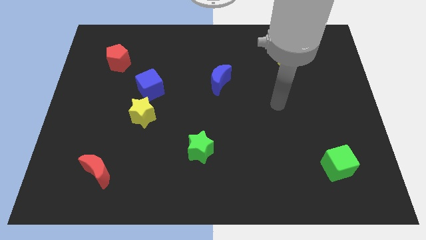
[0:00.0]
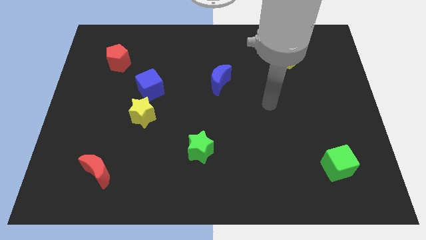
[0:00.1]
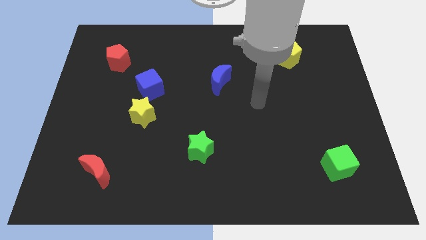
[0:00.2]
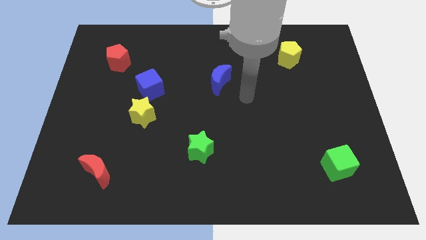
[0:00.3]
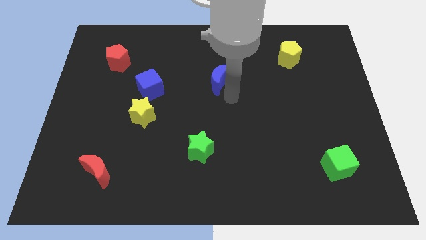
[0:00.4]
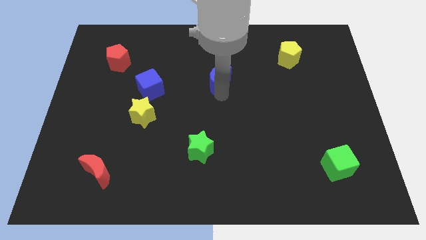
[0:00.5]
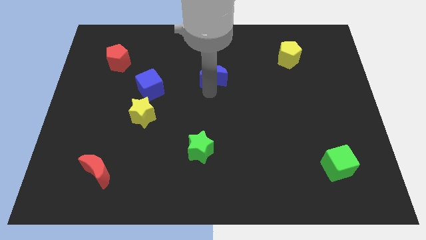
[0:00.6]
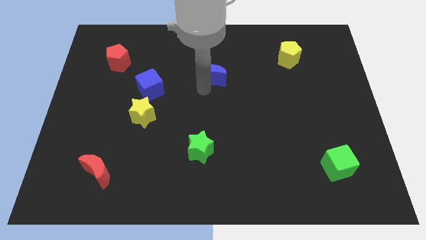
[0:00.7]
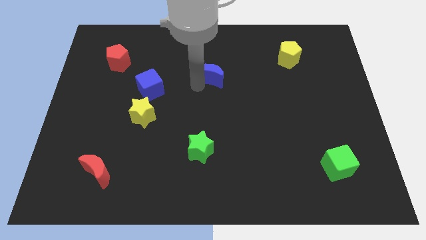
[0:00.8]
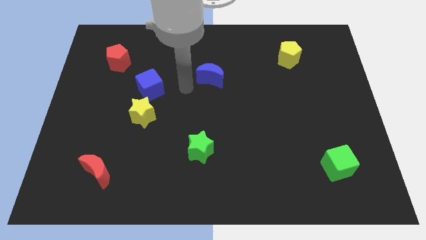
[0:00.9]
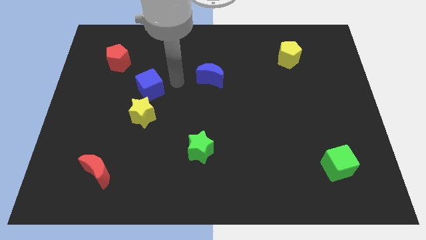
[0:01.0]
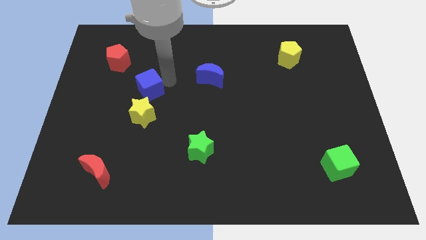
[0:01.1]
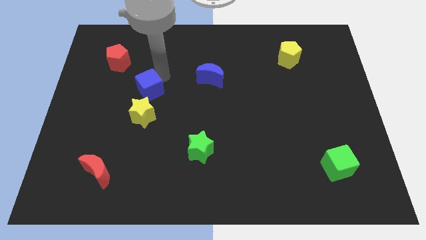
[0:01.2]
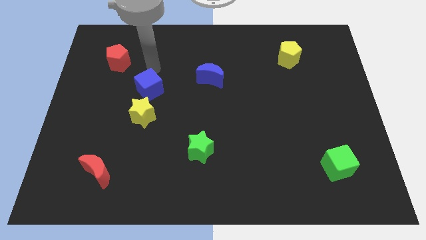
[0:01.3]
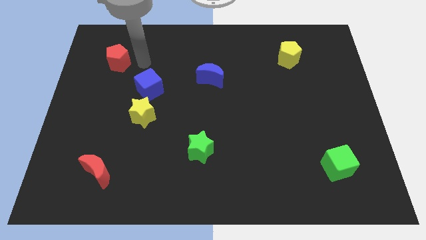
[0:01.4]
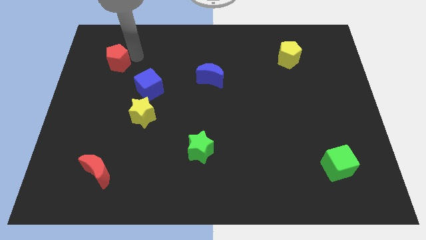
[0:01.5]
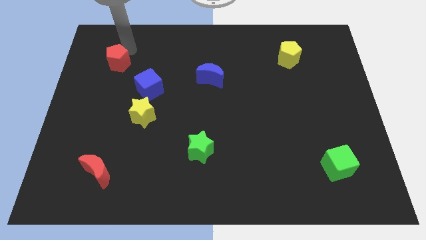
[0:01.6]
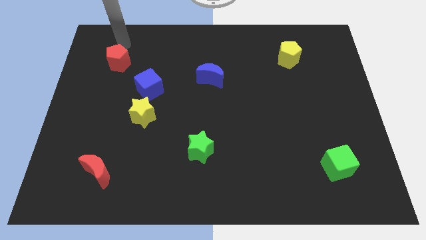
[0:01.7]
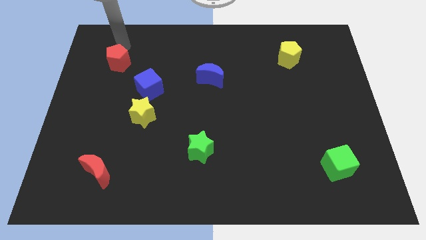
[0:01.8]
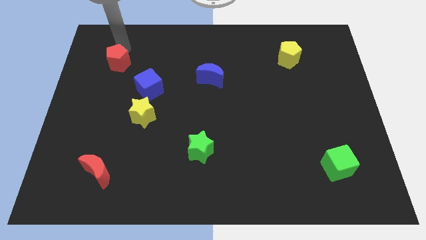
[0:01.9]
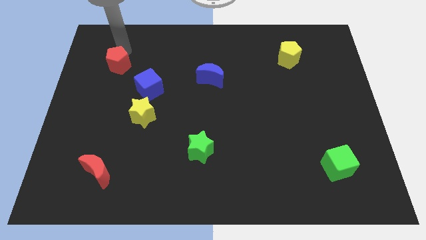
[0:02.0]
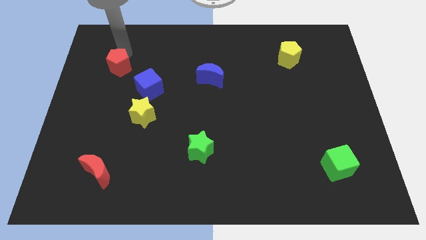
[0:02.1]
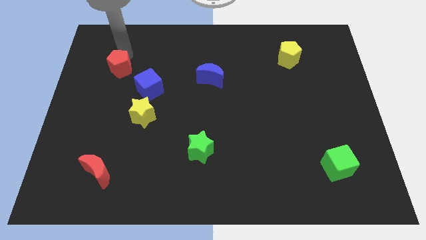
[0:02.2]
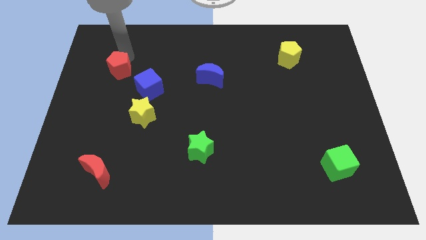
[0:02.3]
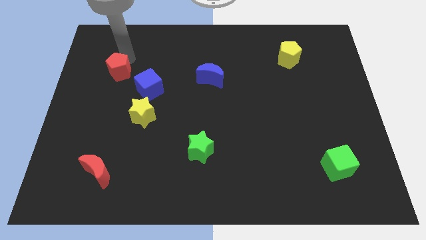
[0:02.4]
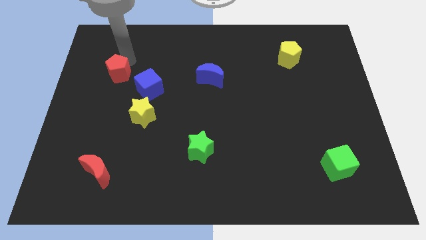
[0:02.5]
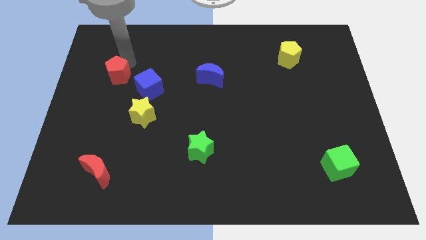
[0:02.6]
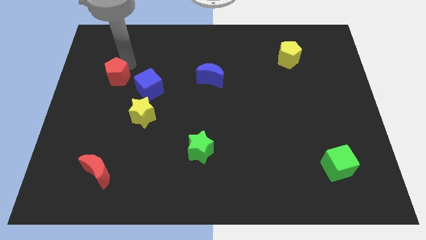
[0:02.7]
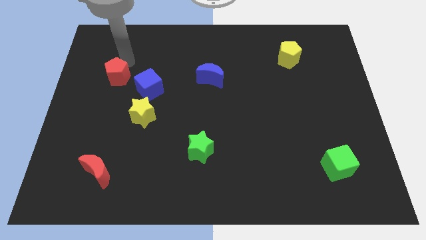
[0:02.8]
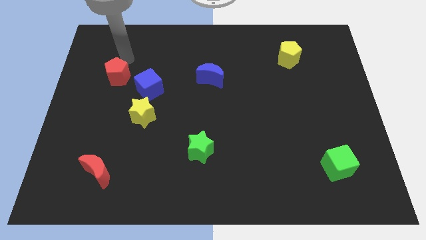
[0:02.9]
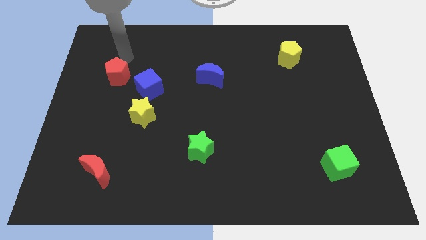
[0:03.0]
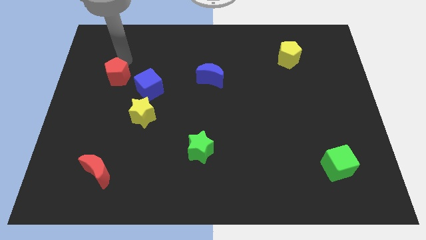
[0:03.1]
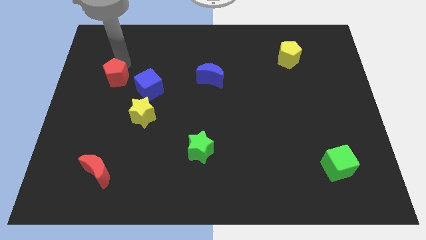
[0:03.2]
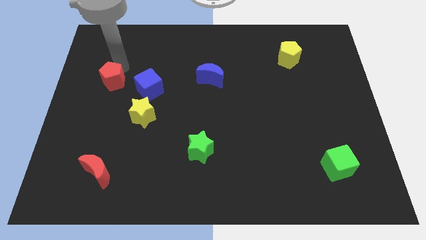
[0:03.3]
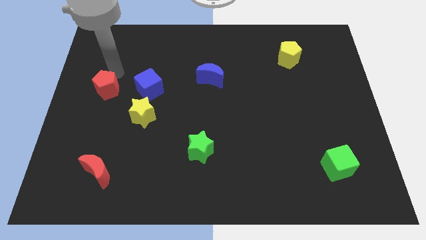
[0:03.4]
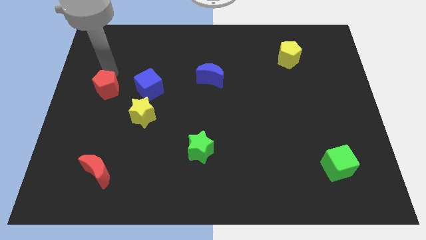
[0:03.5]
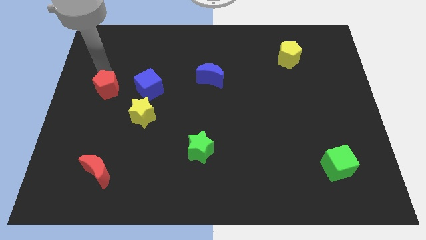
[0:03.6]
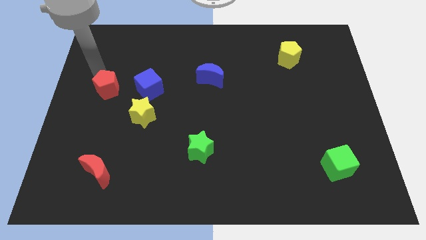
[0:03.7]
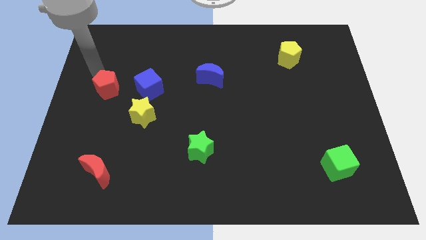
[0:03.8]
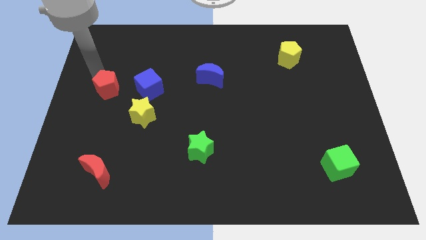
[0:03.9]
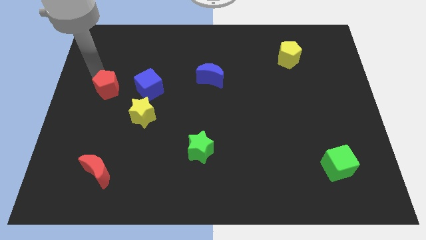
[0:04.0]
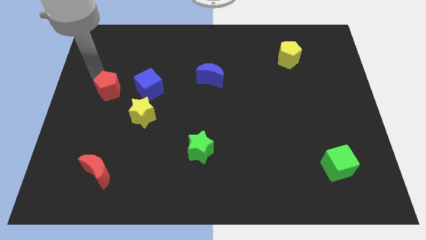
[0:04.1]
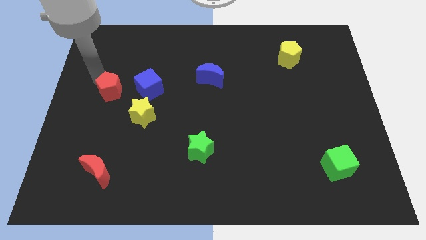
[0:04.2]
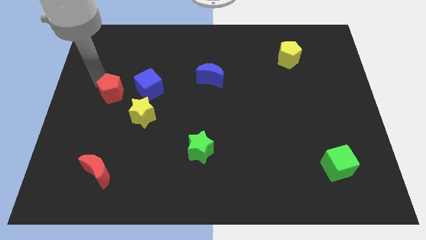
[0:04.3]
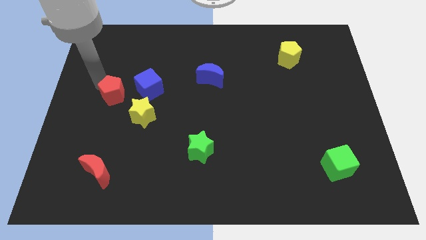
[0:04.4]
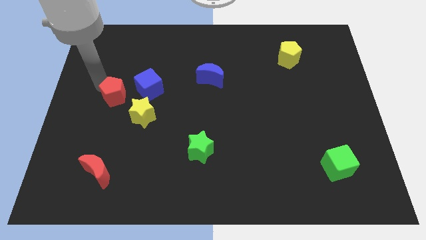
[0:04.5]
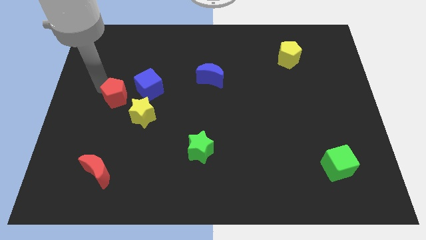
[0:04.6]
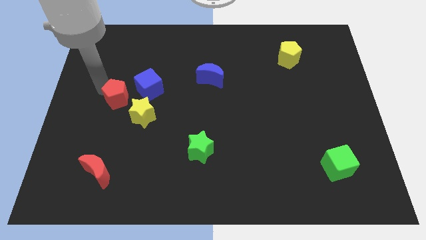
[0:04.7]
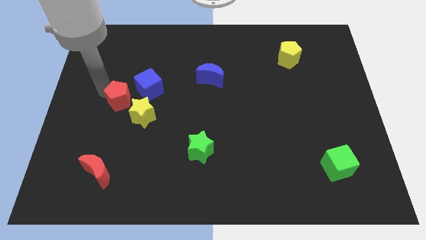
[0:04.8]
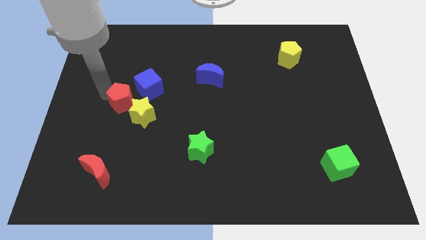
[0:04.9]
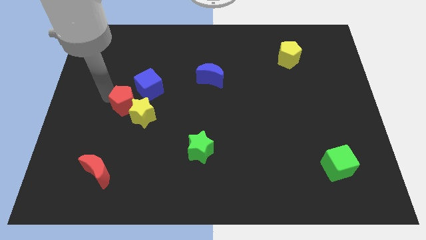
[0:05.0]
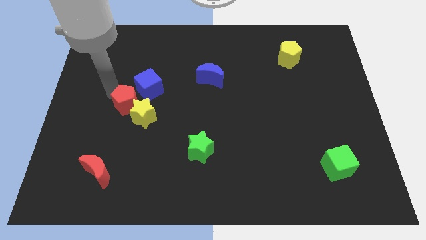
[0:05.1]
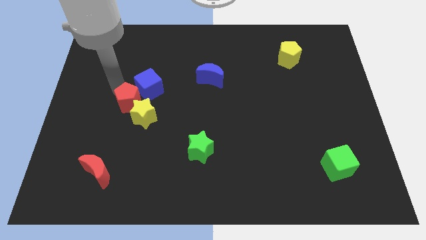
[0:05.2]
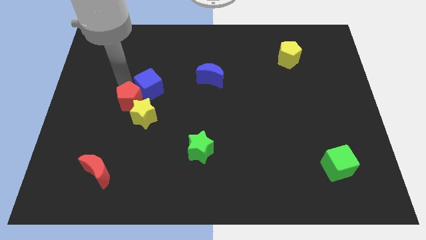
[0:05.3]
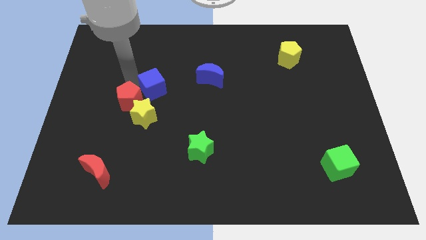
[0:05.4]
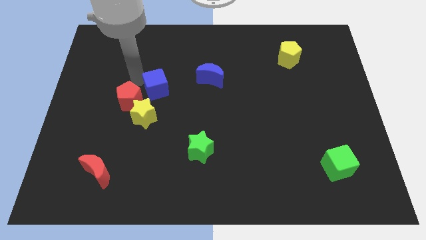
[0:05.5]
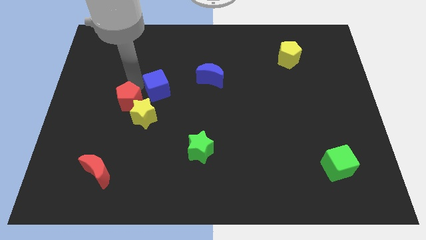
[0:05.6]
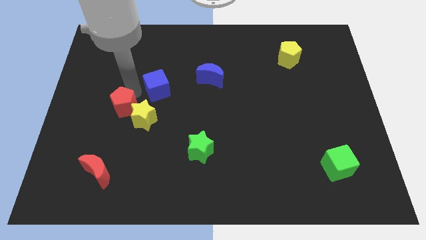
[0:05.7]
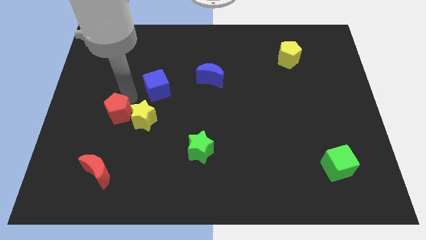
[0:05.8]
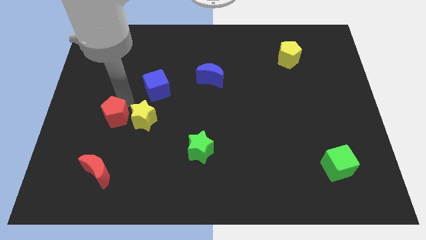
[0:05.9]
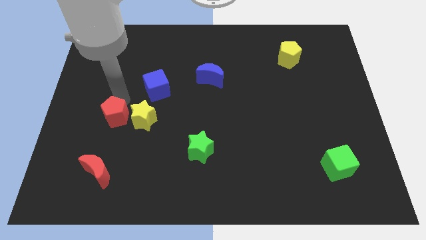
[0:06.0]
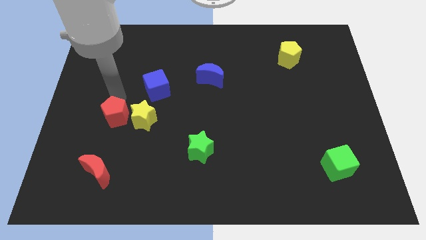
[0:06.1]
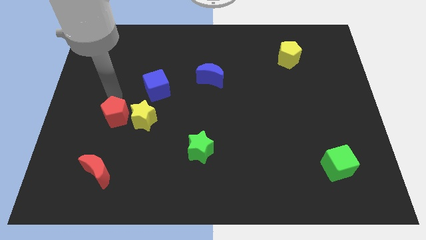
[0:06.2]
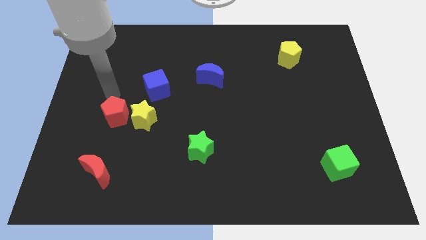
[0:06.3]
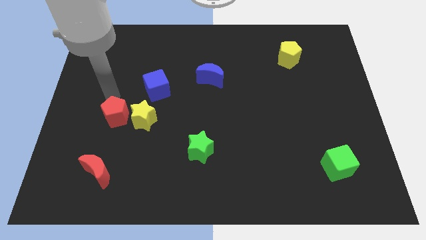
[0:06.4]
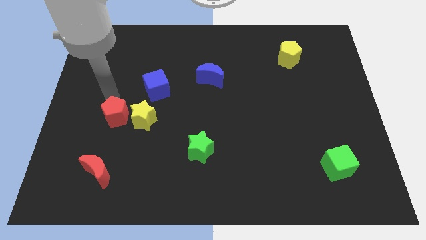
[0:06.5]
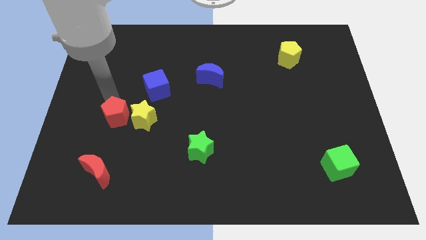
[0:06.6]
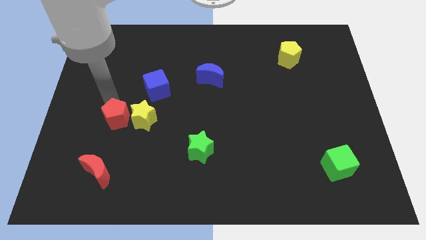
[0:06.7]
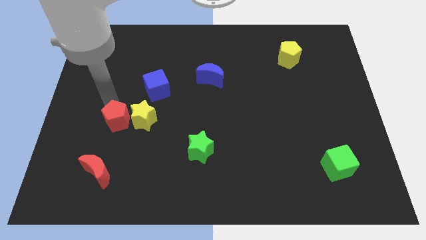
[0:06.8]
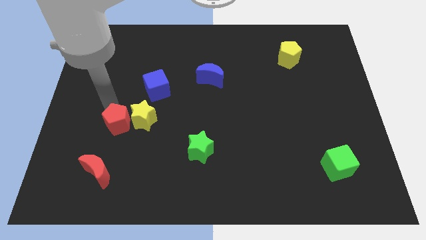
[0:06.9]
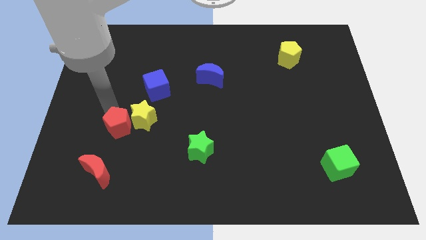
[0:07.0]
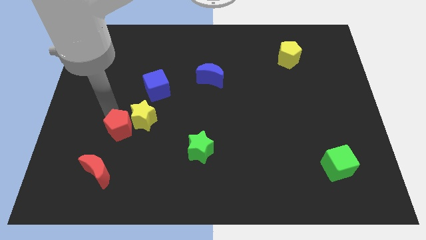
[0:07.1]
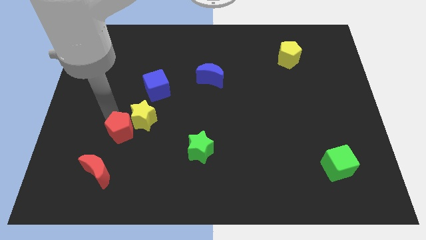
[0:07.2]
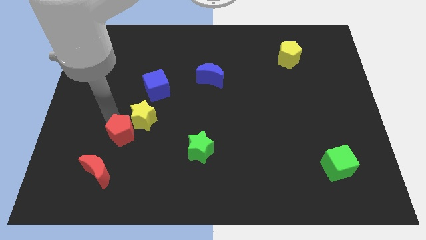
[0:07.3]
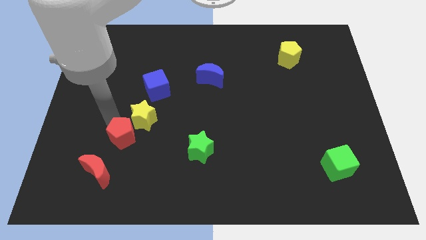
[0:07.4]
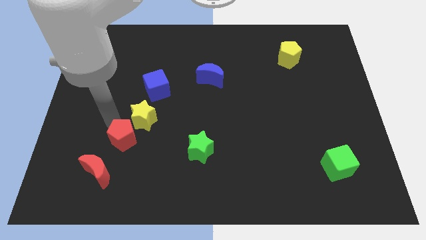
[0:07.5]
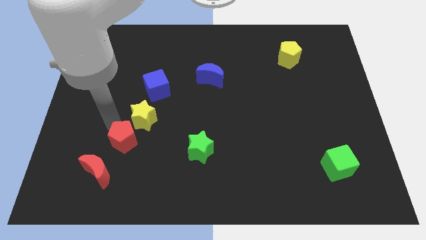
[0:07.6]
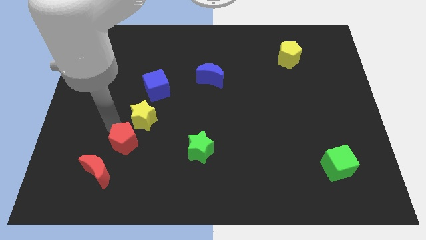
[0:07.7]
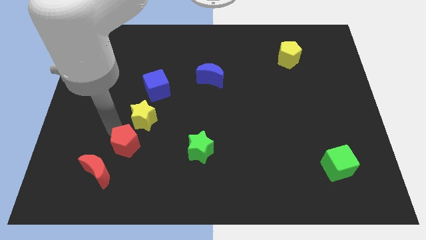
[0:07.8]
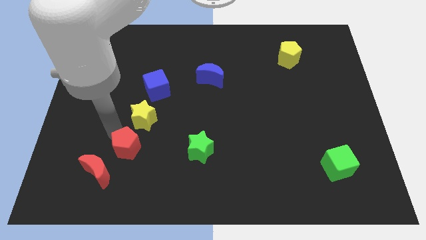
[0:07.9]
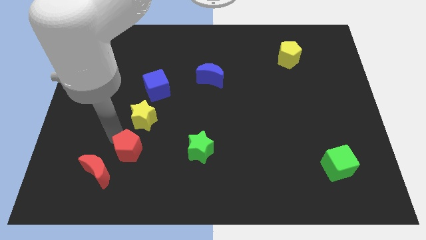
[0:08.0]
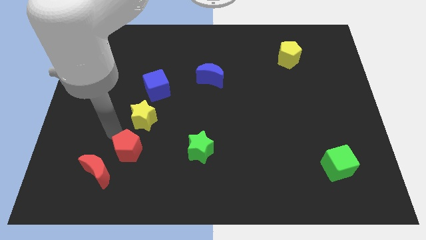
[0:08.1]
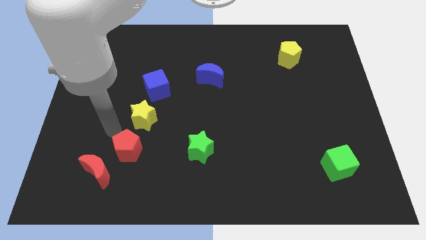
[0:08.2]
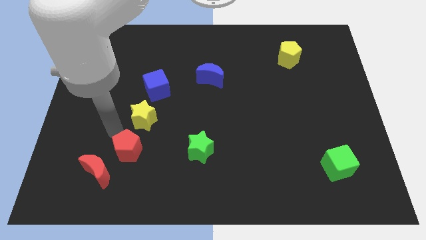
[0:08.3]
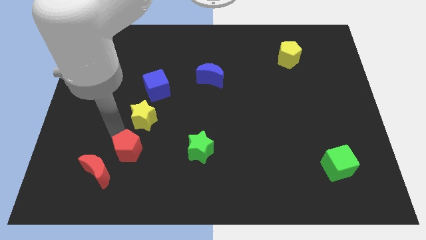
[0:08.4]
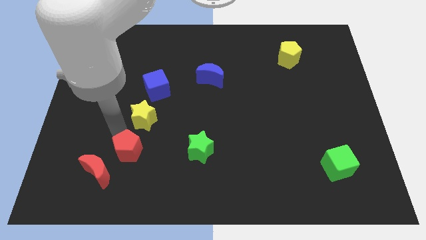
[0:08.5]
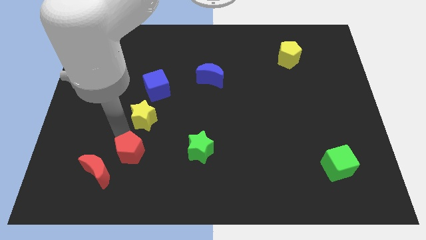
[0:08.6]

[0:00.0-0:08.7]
slide the red pentagon right of the red moon
